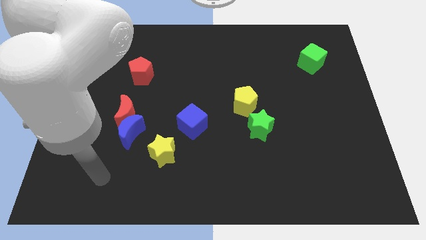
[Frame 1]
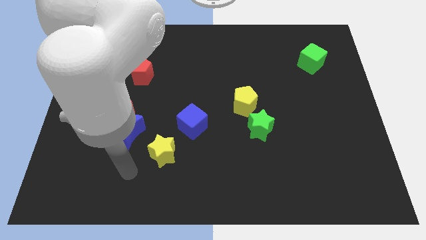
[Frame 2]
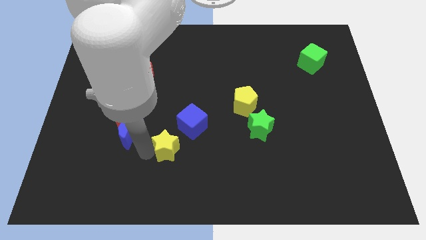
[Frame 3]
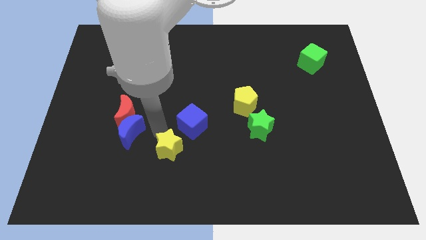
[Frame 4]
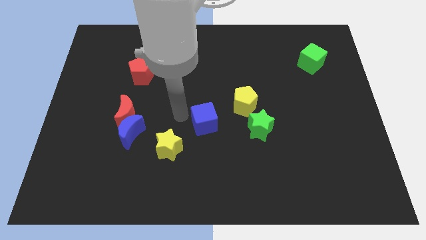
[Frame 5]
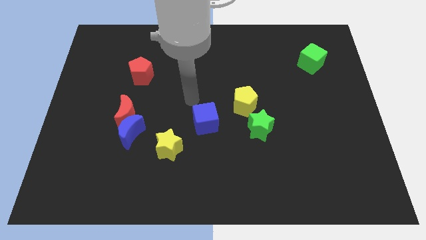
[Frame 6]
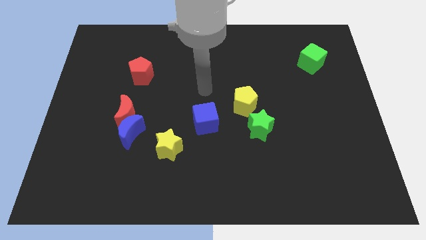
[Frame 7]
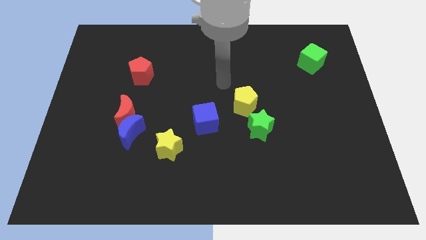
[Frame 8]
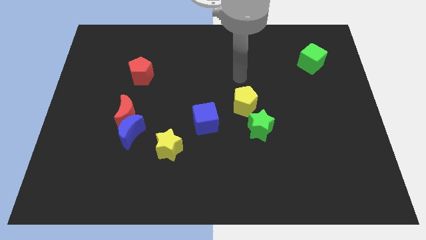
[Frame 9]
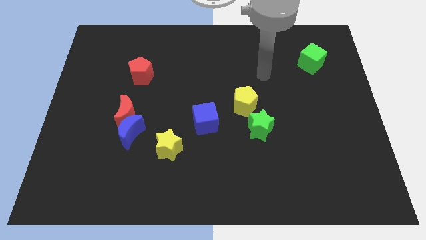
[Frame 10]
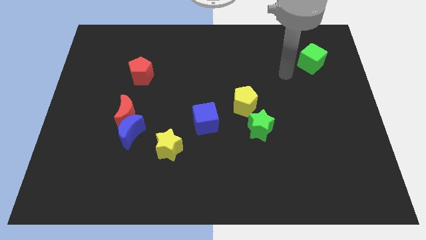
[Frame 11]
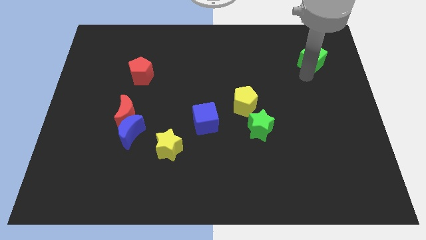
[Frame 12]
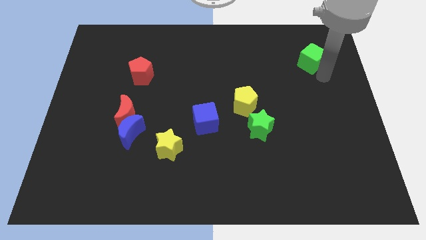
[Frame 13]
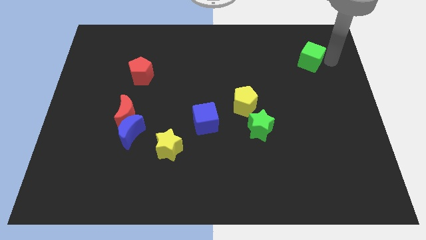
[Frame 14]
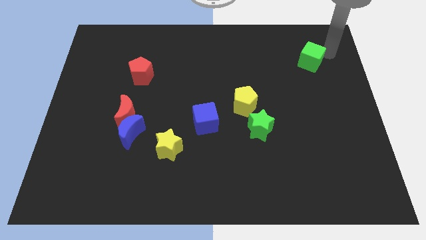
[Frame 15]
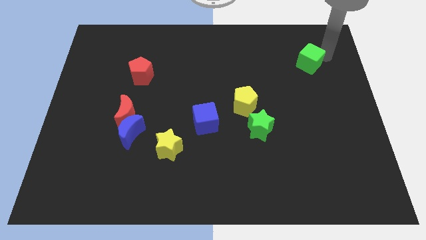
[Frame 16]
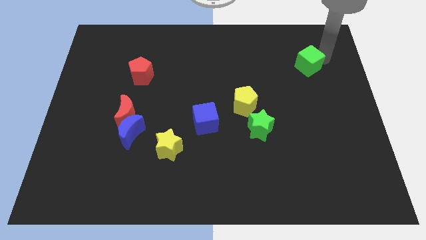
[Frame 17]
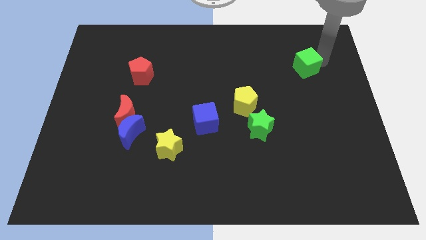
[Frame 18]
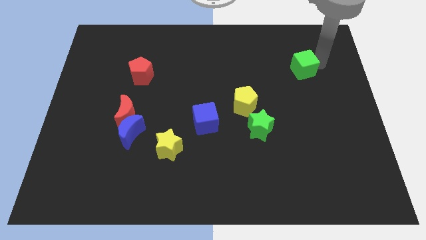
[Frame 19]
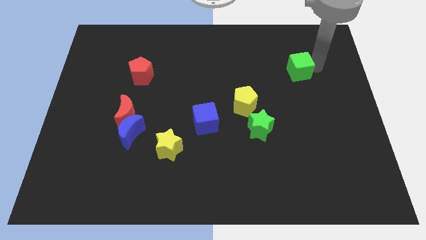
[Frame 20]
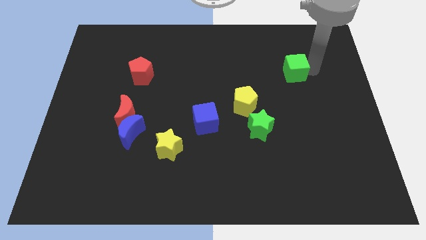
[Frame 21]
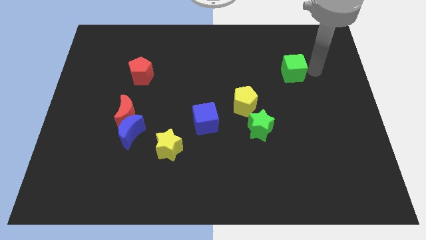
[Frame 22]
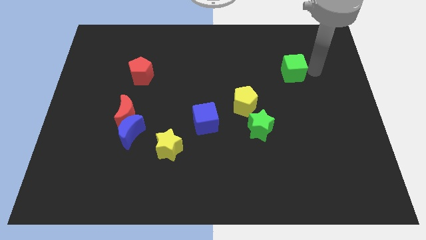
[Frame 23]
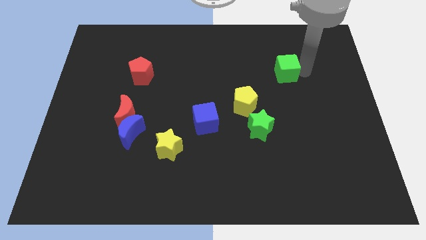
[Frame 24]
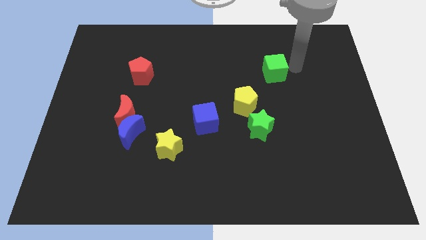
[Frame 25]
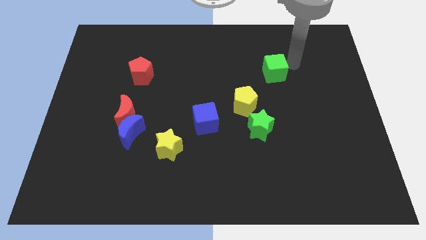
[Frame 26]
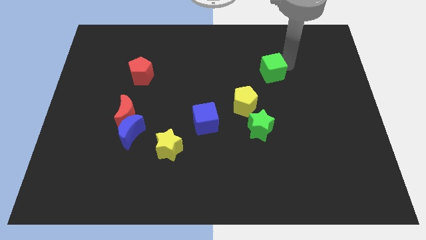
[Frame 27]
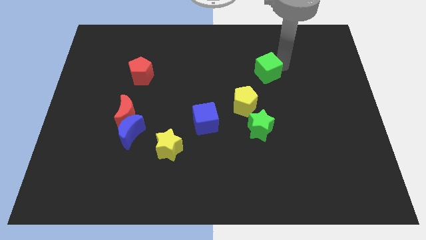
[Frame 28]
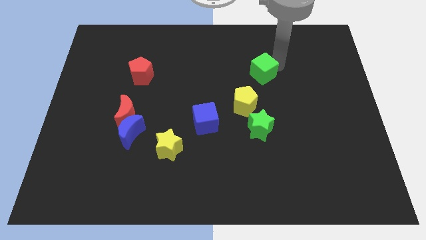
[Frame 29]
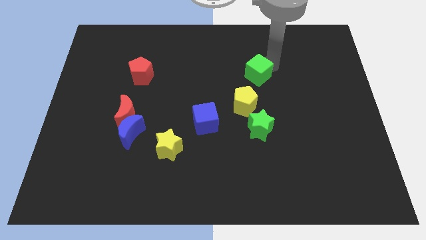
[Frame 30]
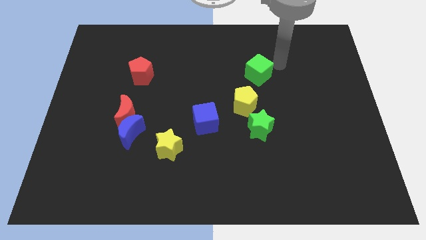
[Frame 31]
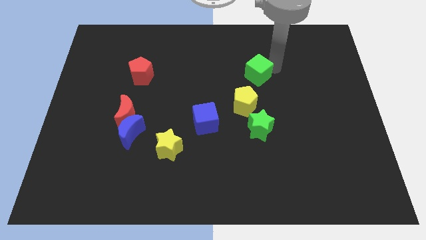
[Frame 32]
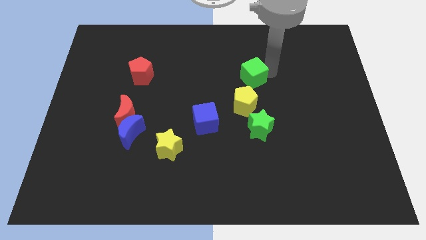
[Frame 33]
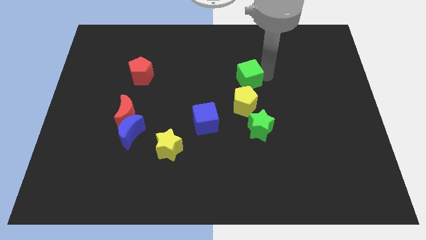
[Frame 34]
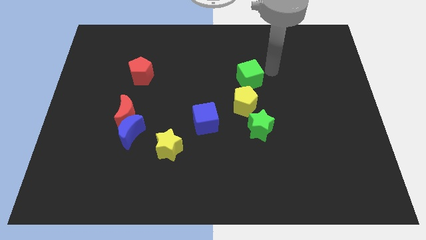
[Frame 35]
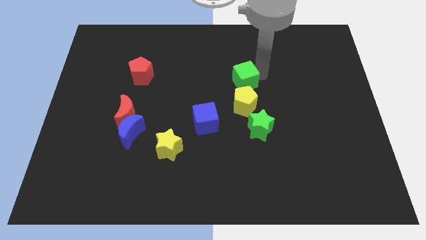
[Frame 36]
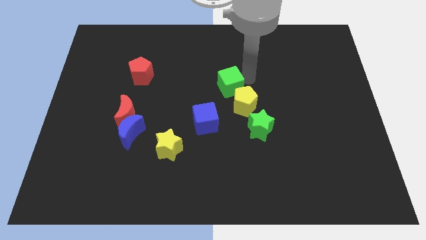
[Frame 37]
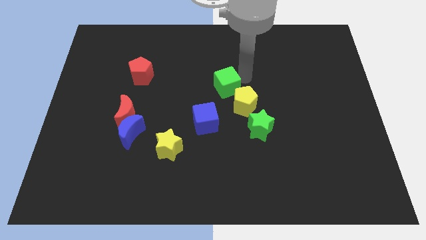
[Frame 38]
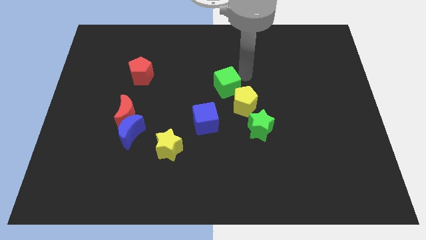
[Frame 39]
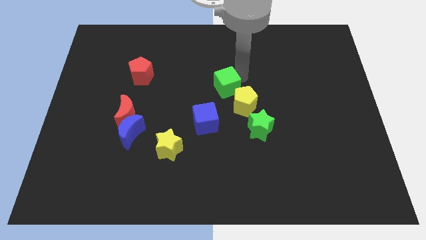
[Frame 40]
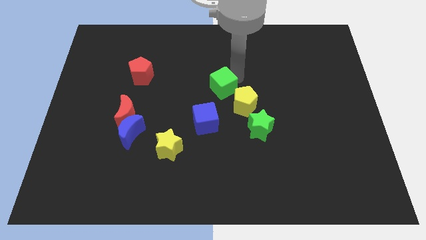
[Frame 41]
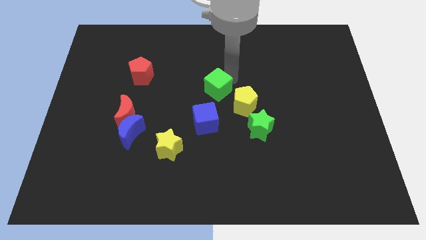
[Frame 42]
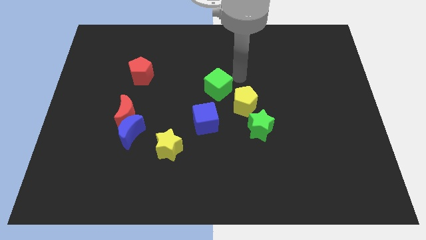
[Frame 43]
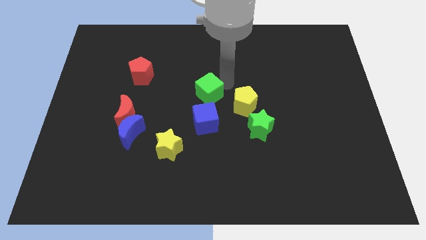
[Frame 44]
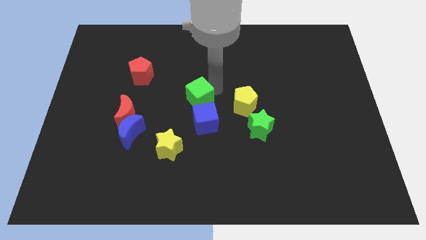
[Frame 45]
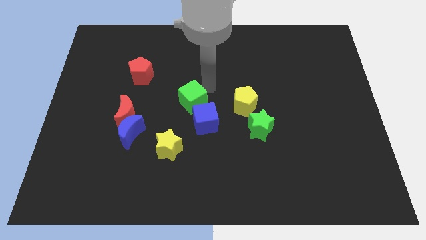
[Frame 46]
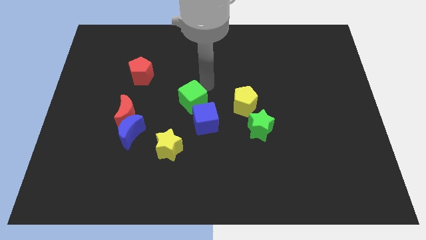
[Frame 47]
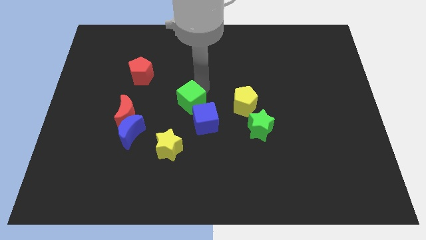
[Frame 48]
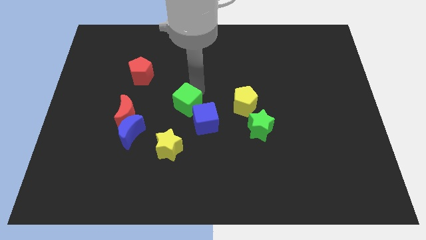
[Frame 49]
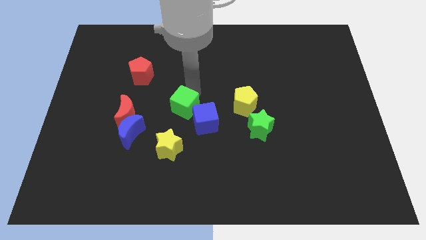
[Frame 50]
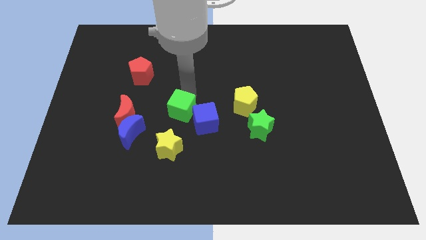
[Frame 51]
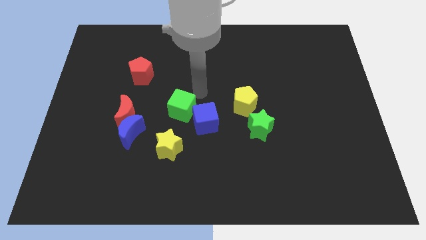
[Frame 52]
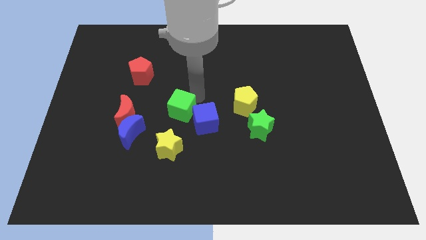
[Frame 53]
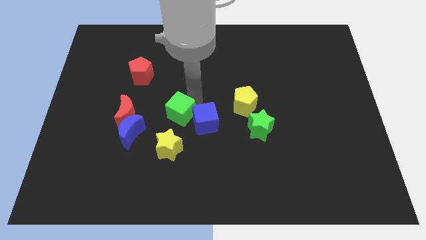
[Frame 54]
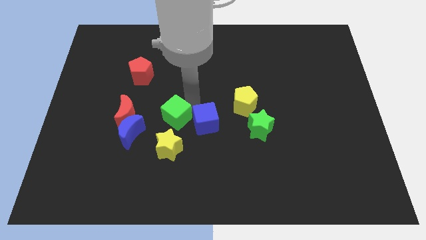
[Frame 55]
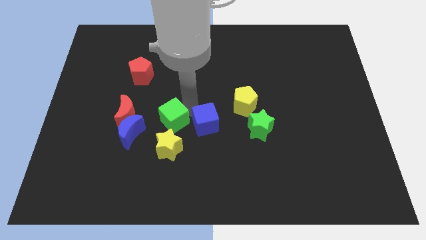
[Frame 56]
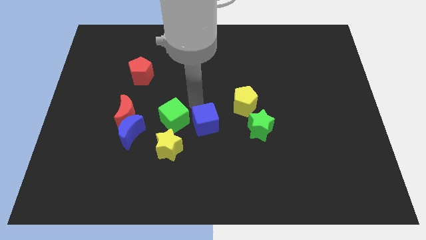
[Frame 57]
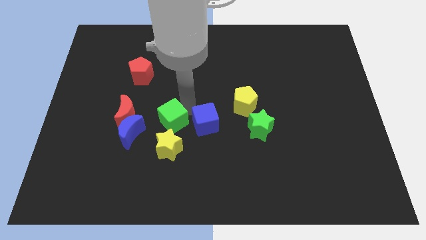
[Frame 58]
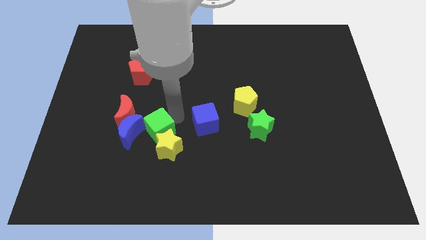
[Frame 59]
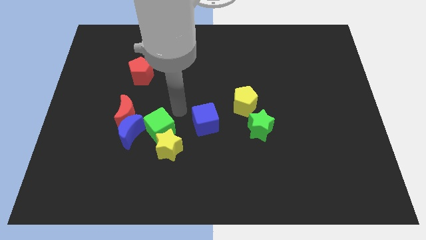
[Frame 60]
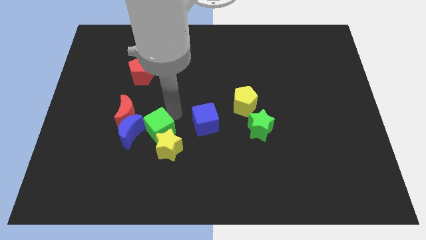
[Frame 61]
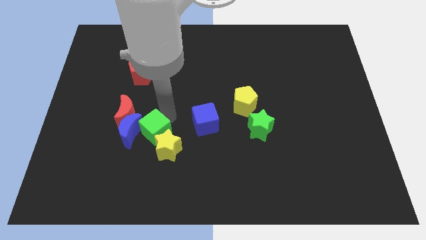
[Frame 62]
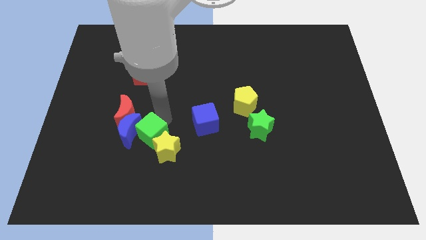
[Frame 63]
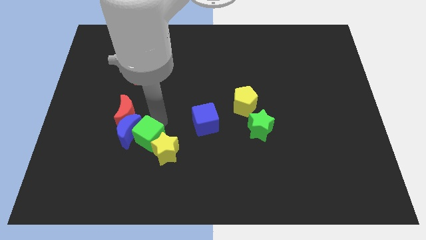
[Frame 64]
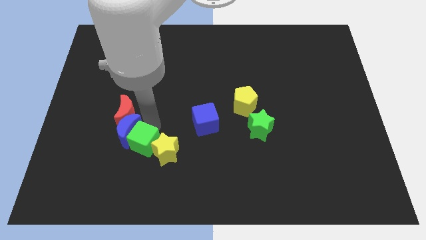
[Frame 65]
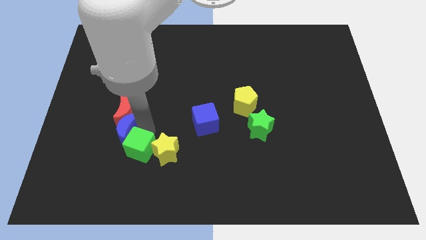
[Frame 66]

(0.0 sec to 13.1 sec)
put the green cube diagonally down and to the left of the yellow star

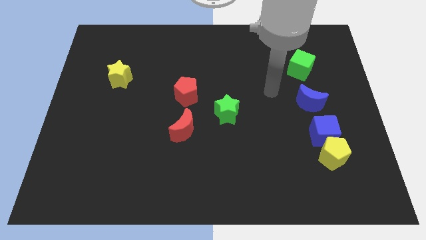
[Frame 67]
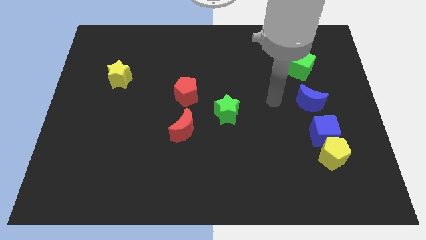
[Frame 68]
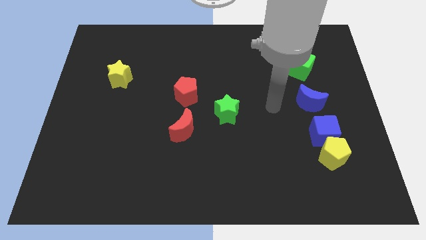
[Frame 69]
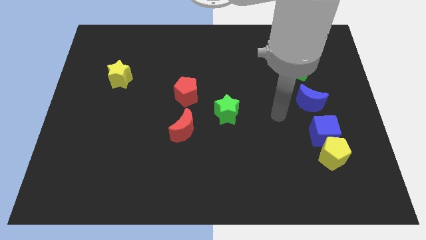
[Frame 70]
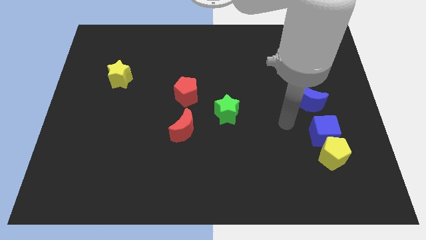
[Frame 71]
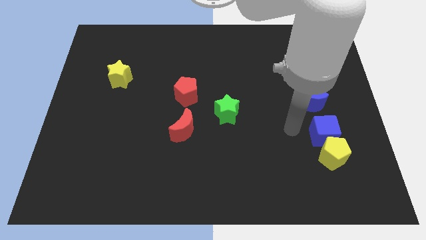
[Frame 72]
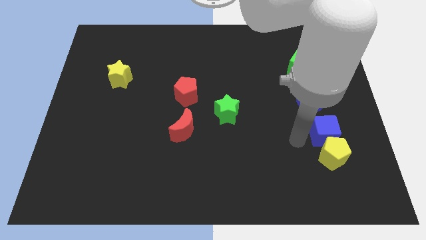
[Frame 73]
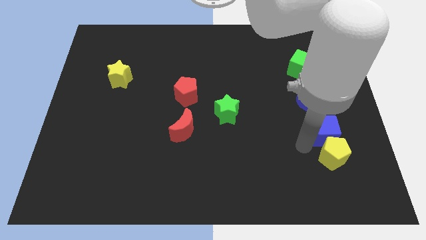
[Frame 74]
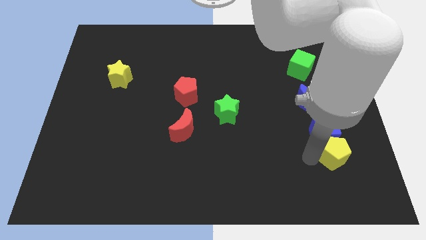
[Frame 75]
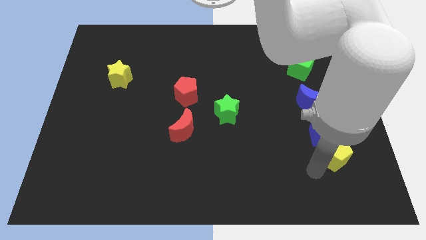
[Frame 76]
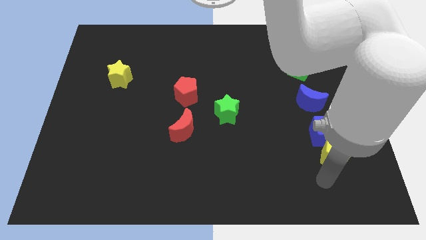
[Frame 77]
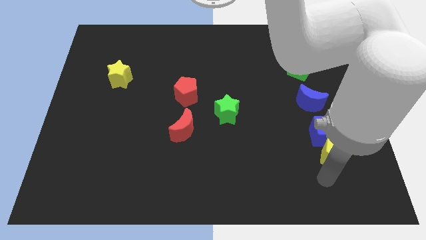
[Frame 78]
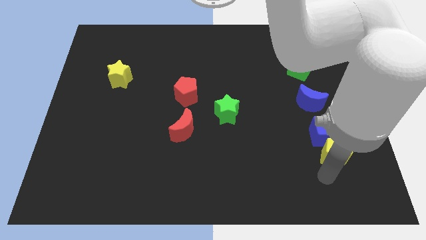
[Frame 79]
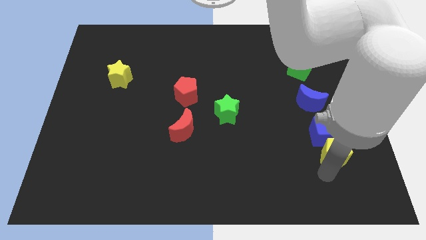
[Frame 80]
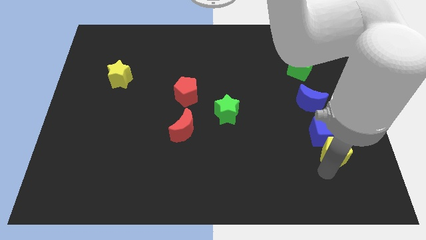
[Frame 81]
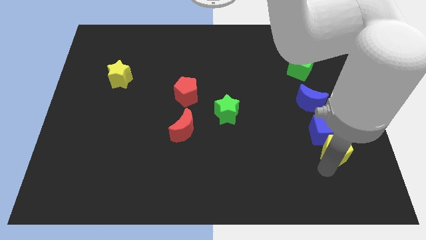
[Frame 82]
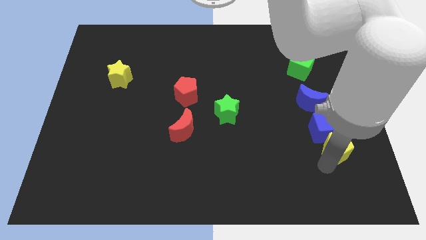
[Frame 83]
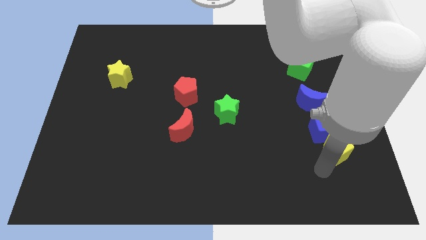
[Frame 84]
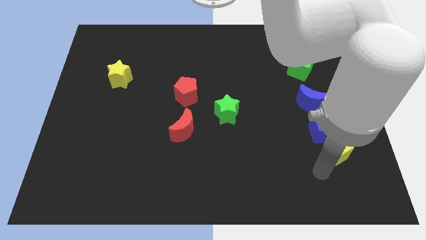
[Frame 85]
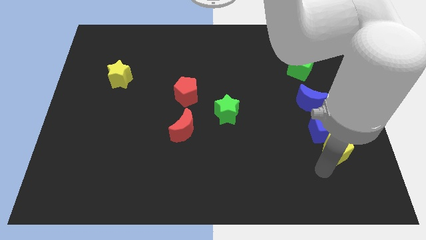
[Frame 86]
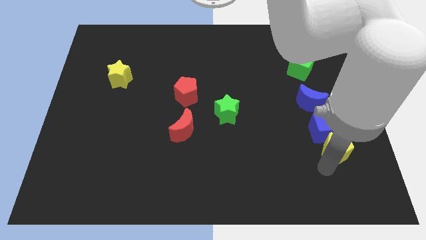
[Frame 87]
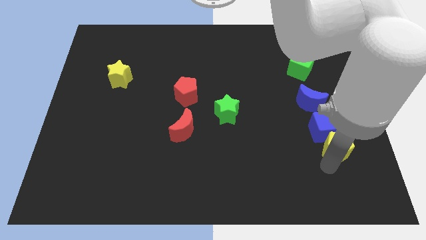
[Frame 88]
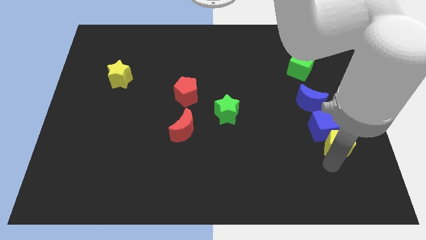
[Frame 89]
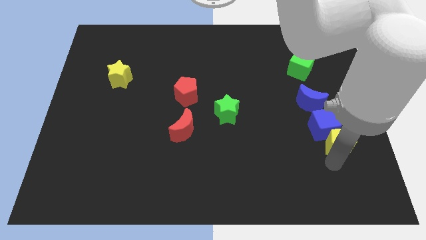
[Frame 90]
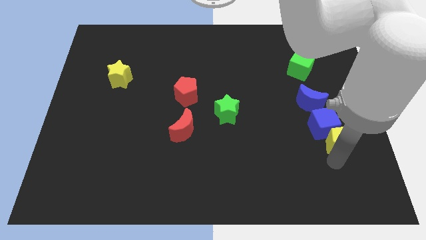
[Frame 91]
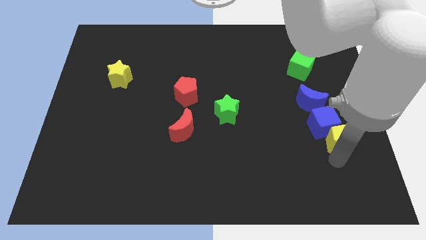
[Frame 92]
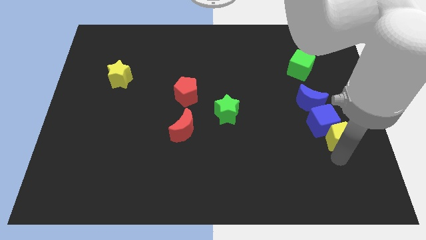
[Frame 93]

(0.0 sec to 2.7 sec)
move the yellow pentagon to the bottom right of the blue moon
